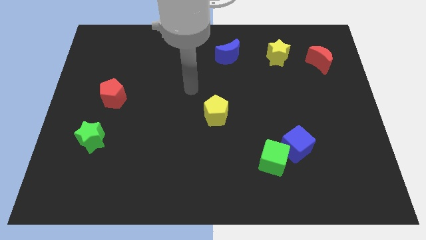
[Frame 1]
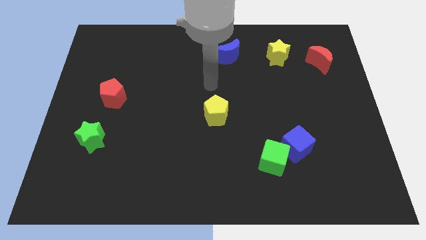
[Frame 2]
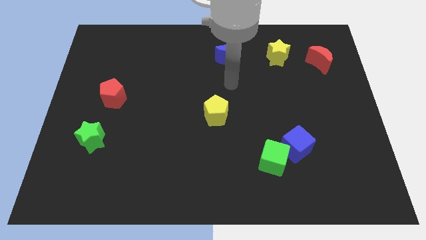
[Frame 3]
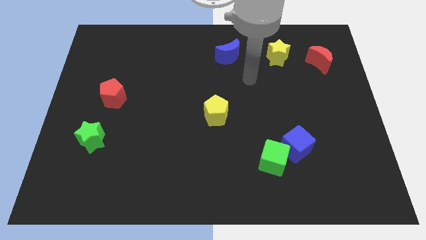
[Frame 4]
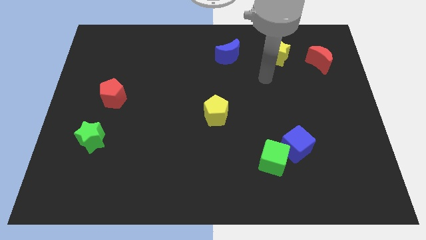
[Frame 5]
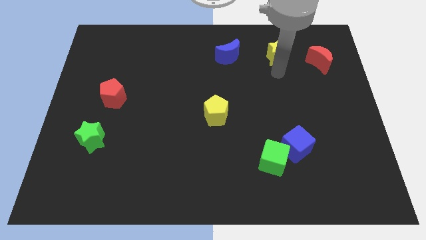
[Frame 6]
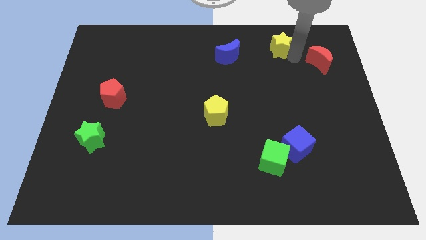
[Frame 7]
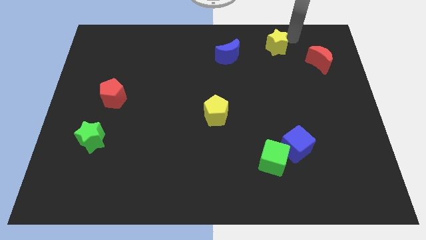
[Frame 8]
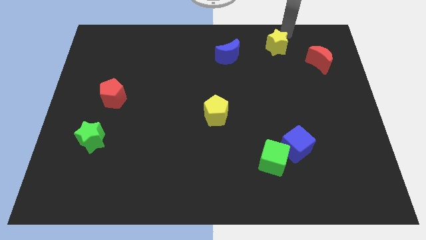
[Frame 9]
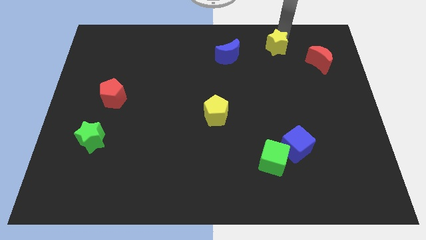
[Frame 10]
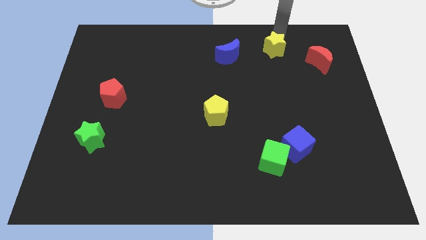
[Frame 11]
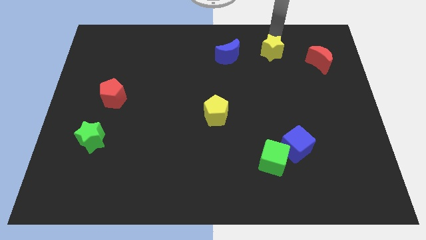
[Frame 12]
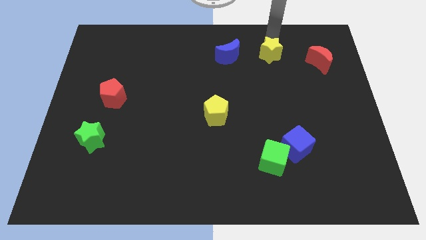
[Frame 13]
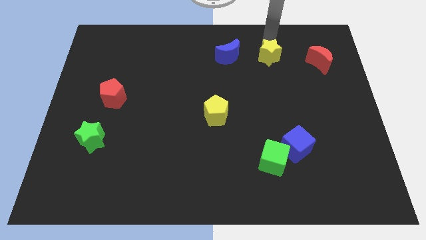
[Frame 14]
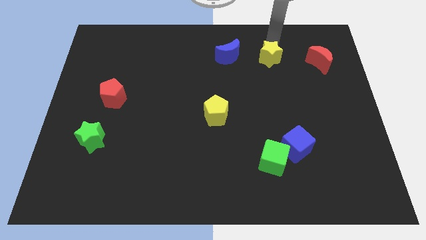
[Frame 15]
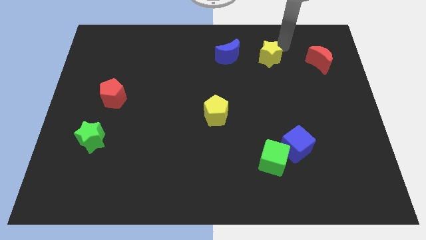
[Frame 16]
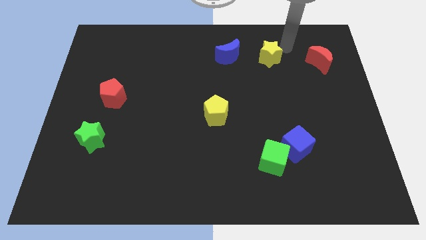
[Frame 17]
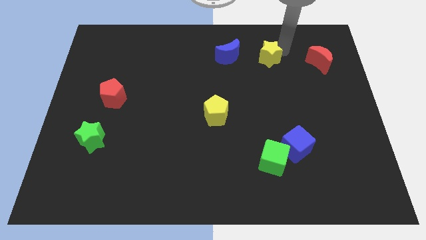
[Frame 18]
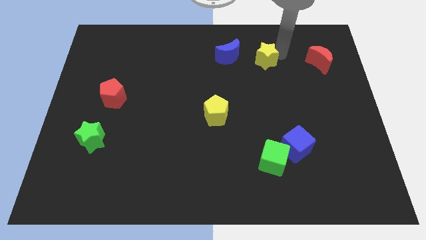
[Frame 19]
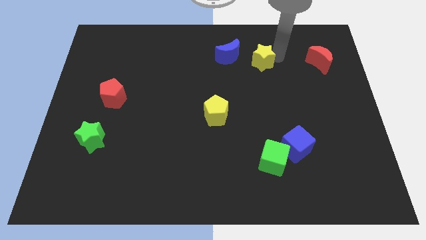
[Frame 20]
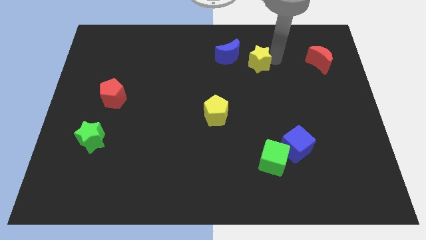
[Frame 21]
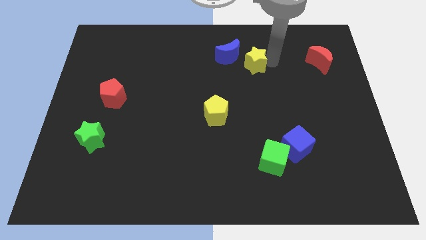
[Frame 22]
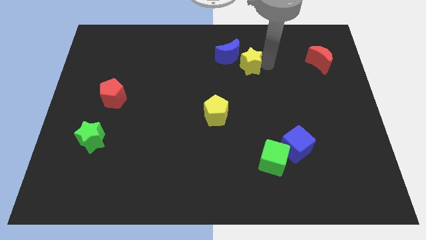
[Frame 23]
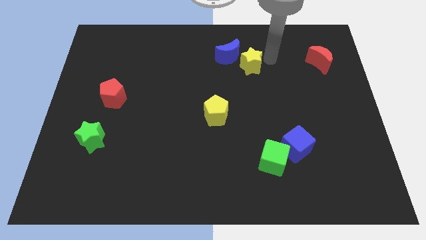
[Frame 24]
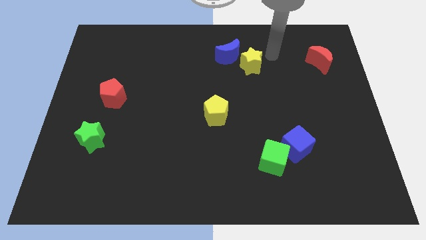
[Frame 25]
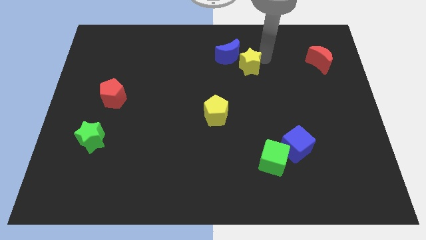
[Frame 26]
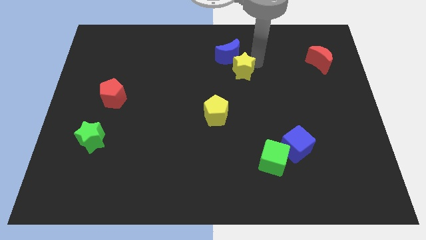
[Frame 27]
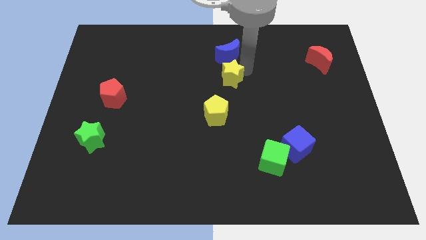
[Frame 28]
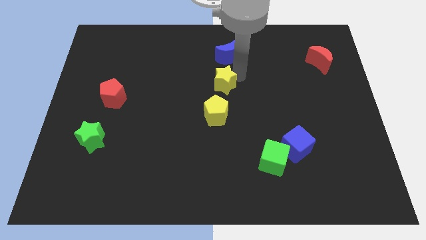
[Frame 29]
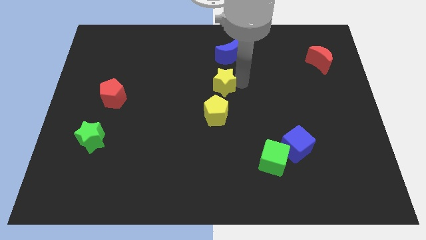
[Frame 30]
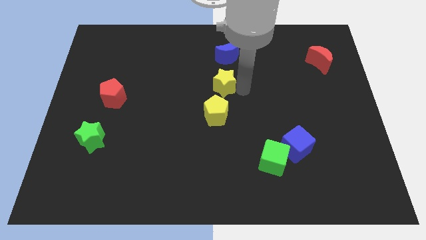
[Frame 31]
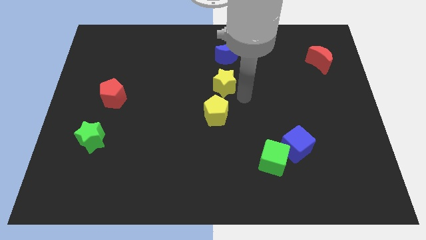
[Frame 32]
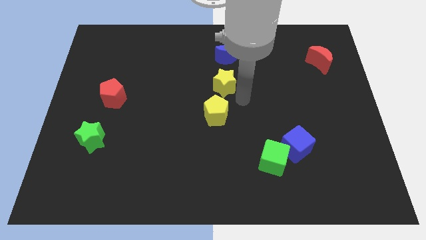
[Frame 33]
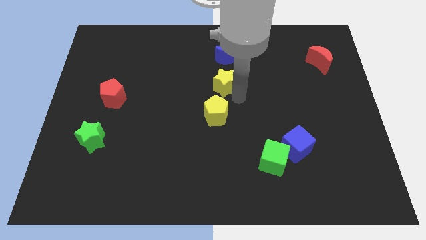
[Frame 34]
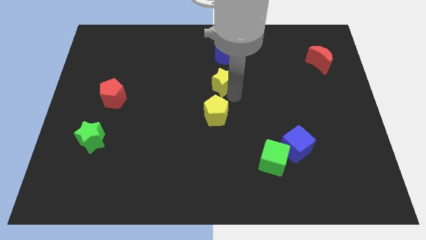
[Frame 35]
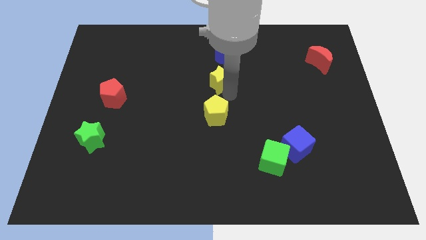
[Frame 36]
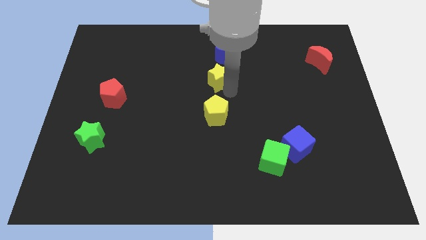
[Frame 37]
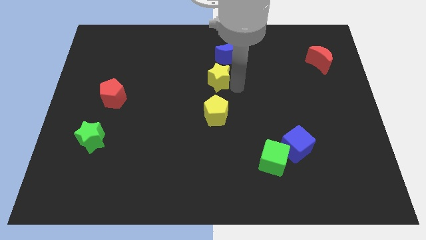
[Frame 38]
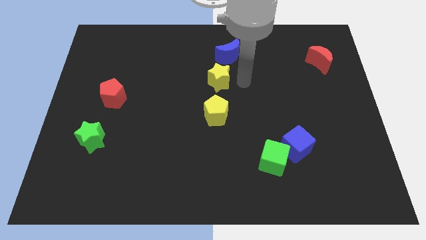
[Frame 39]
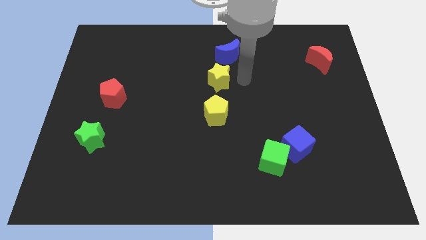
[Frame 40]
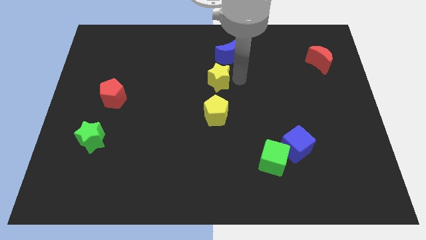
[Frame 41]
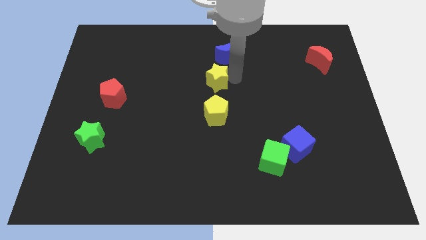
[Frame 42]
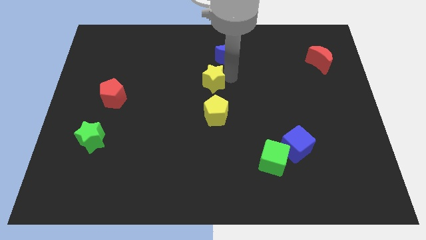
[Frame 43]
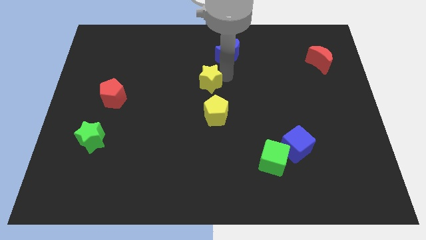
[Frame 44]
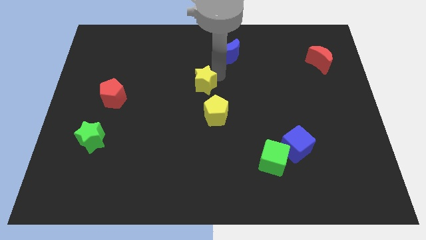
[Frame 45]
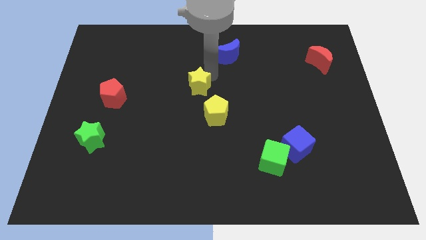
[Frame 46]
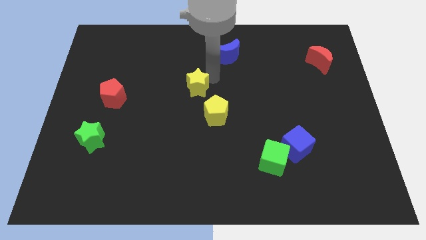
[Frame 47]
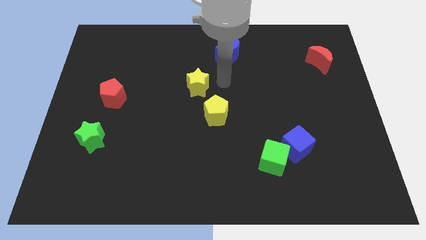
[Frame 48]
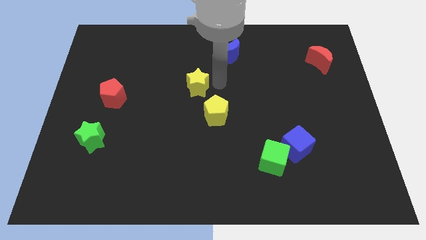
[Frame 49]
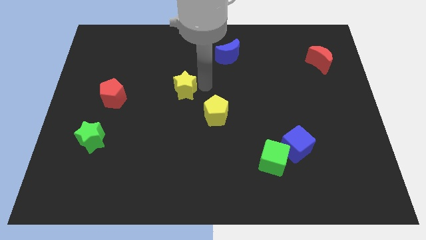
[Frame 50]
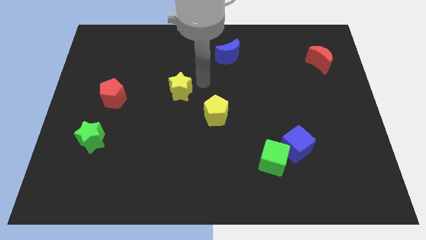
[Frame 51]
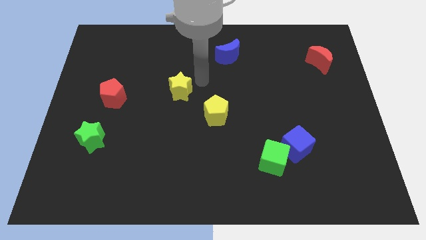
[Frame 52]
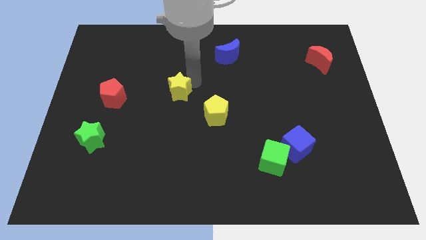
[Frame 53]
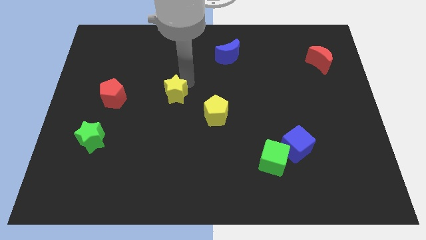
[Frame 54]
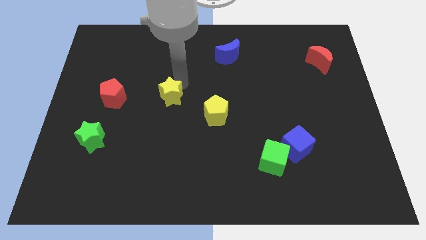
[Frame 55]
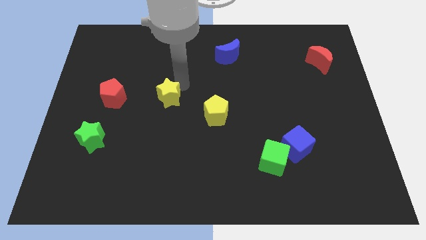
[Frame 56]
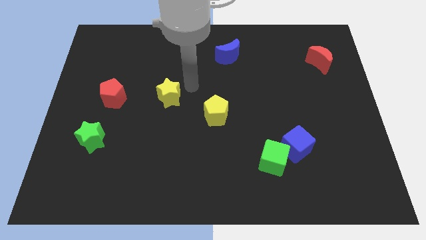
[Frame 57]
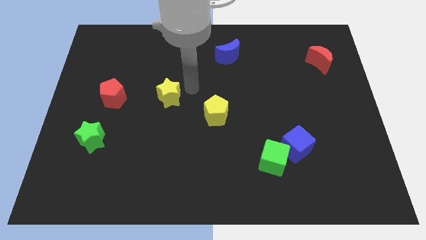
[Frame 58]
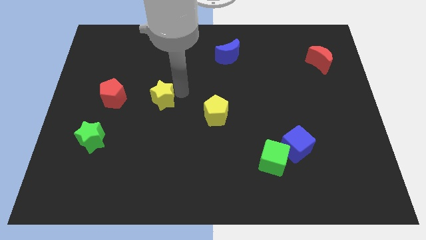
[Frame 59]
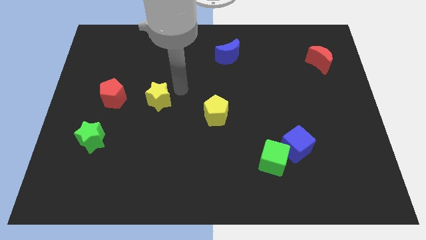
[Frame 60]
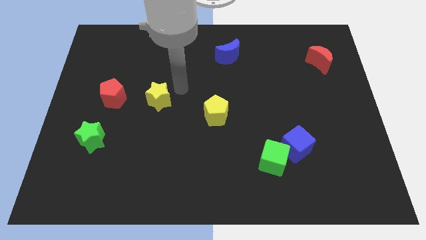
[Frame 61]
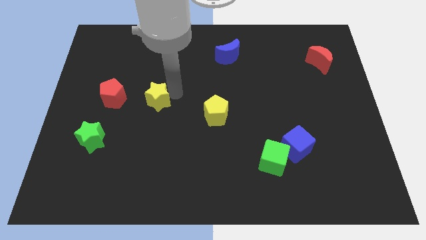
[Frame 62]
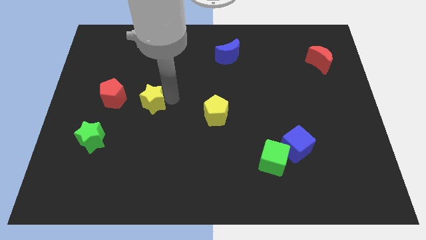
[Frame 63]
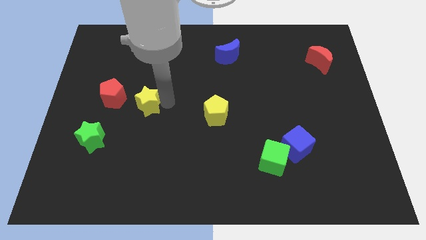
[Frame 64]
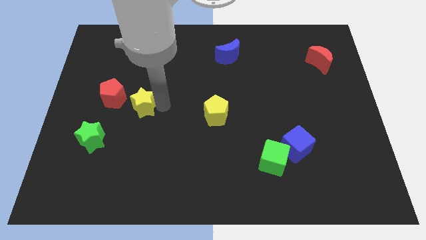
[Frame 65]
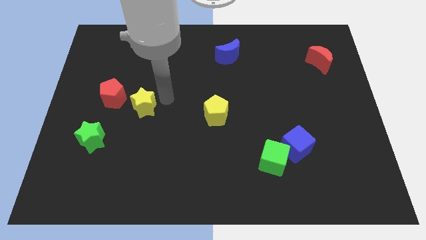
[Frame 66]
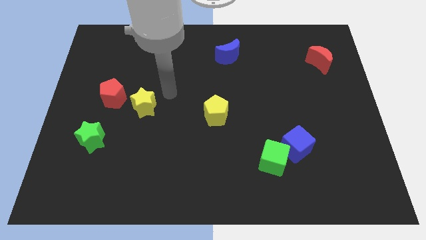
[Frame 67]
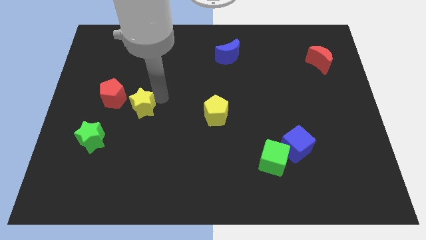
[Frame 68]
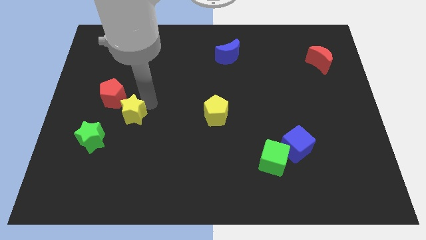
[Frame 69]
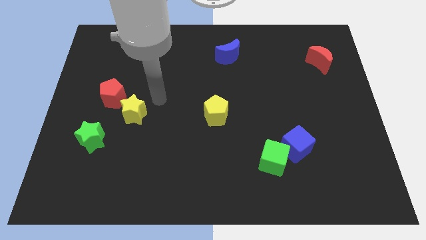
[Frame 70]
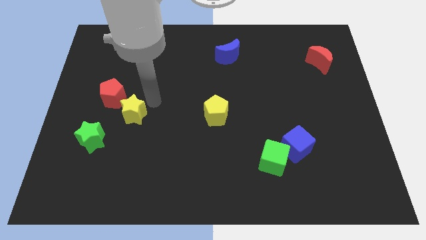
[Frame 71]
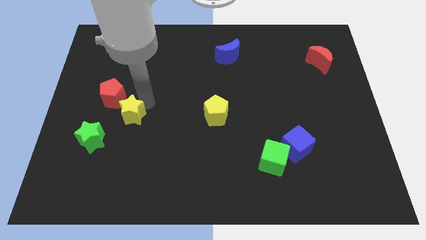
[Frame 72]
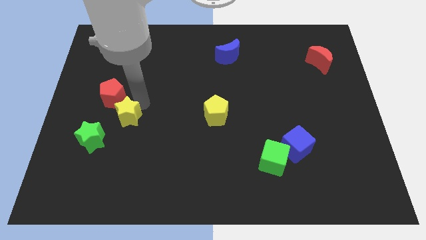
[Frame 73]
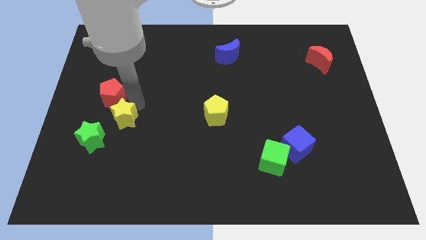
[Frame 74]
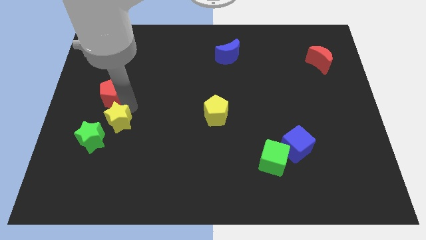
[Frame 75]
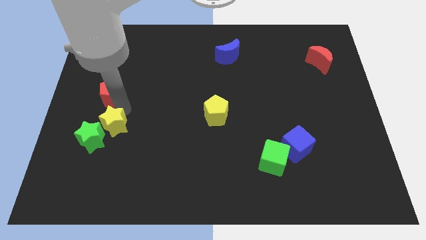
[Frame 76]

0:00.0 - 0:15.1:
put the yellow star towards the green star
